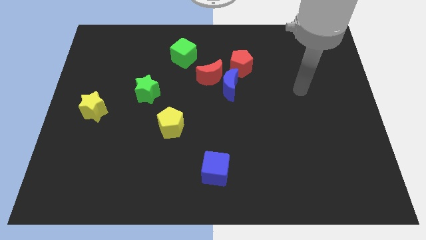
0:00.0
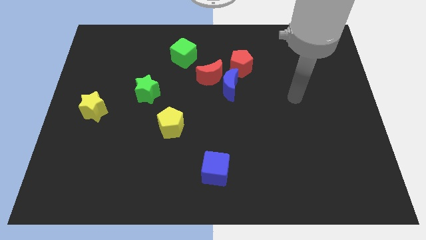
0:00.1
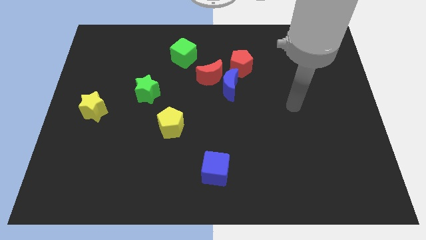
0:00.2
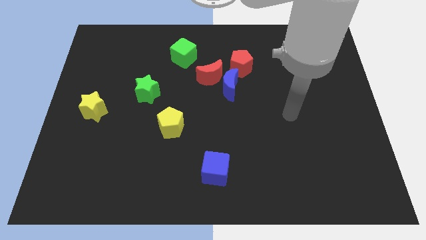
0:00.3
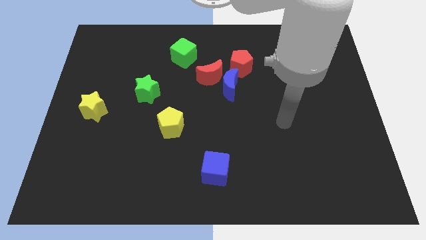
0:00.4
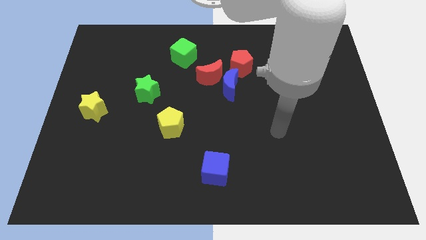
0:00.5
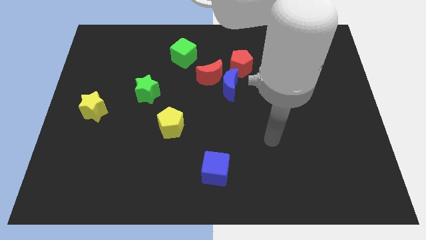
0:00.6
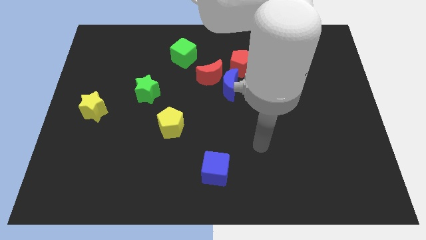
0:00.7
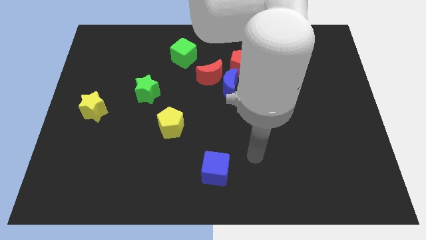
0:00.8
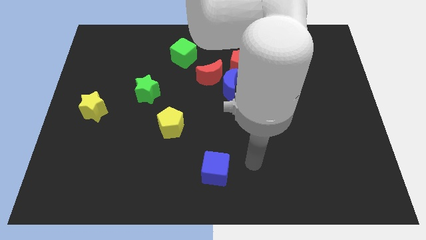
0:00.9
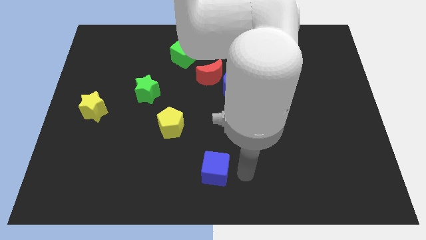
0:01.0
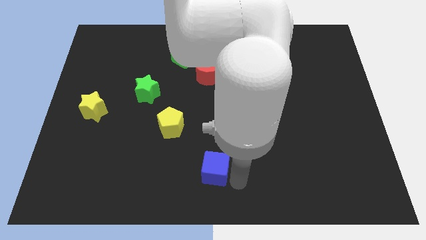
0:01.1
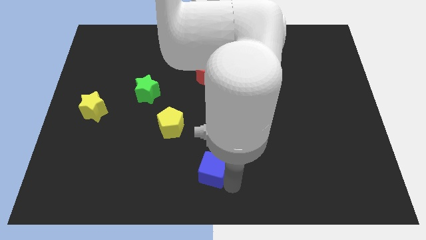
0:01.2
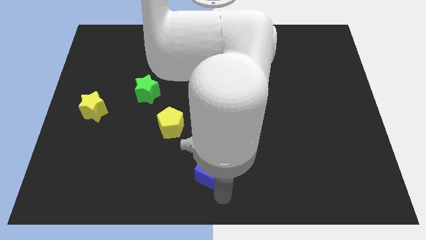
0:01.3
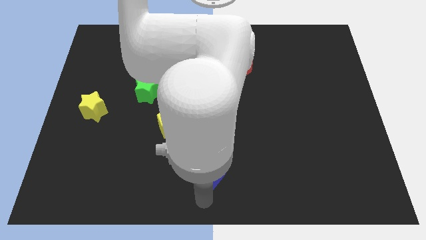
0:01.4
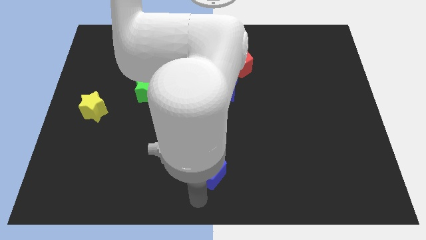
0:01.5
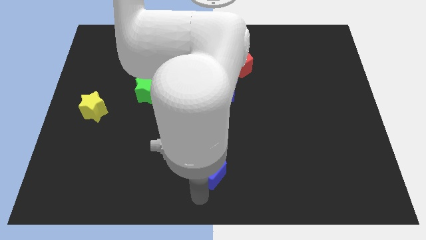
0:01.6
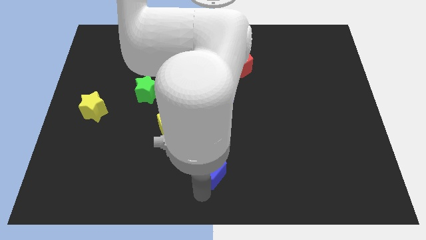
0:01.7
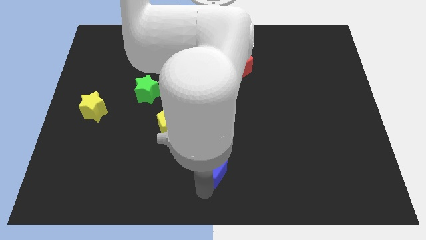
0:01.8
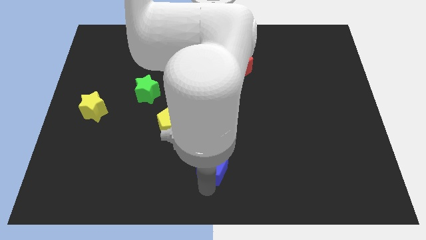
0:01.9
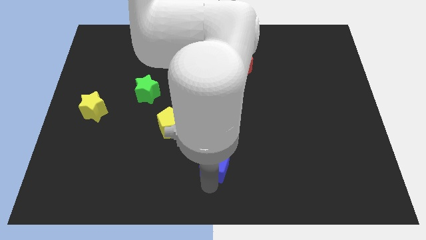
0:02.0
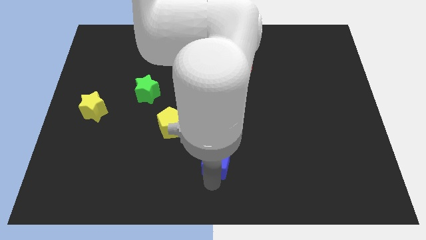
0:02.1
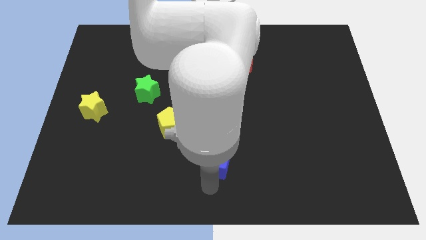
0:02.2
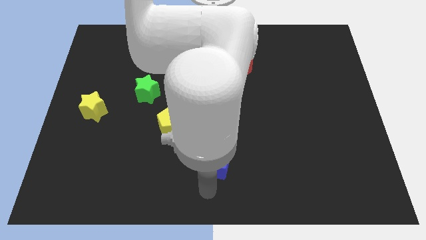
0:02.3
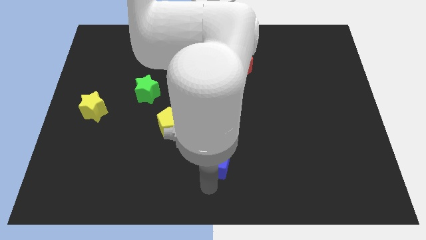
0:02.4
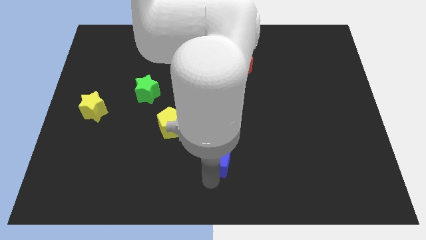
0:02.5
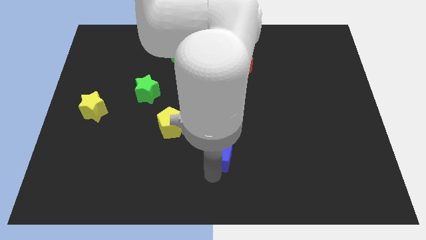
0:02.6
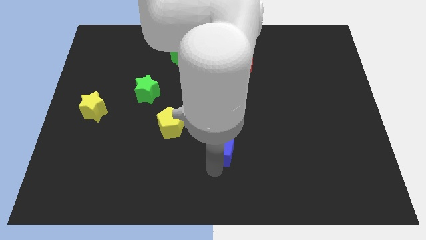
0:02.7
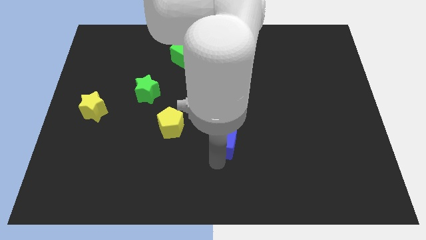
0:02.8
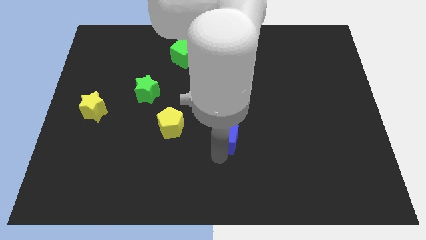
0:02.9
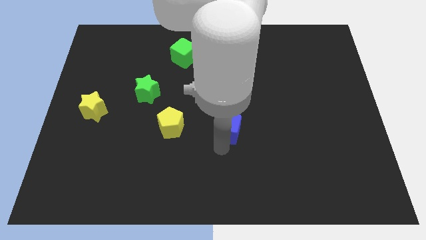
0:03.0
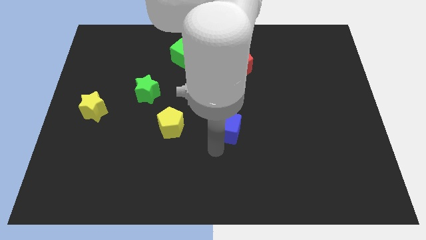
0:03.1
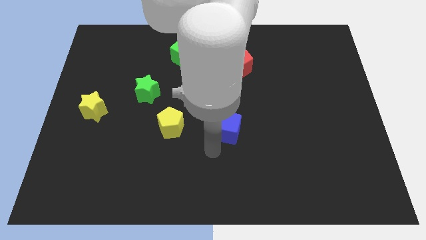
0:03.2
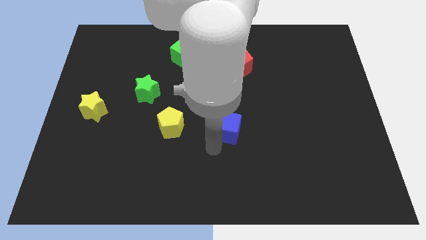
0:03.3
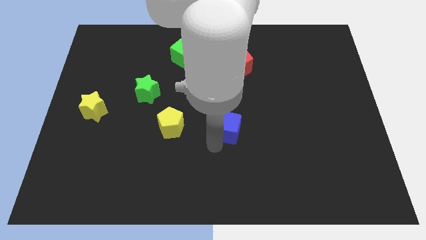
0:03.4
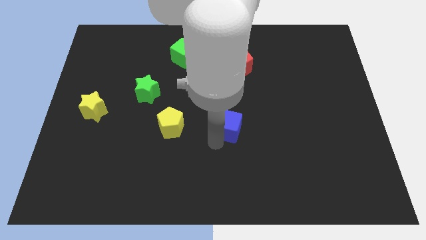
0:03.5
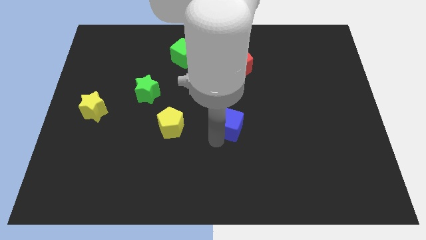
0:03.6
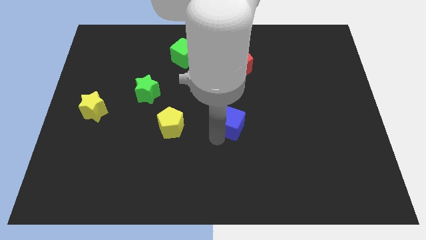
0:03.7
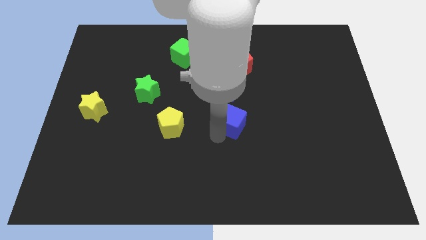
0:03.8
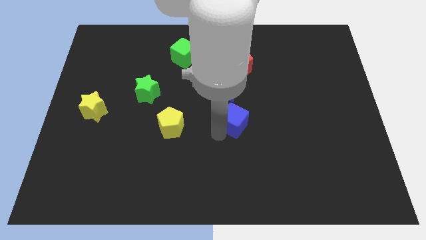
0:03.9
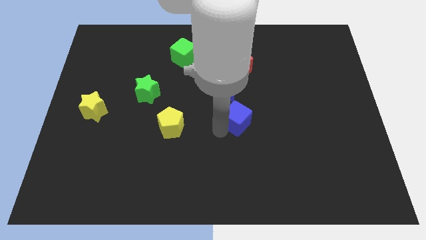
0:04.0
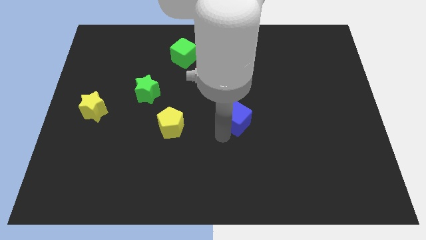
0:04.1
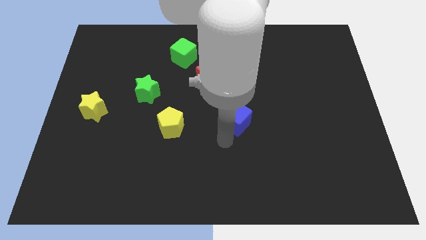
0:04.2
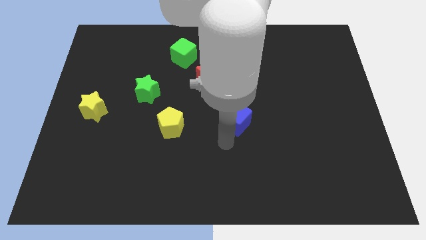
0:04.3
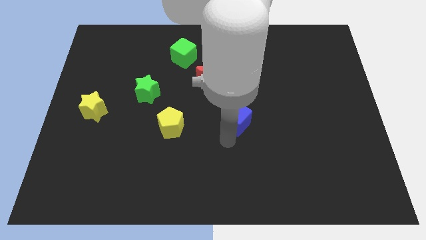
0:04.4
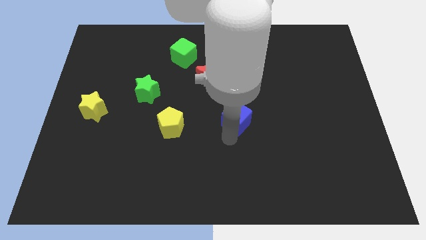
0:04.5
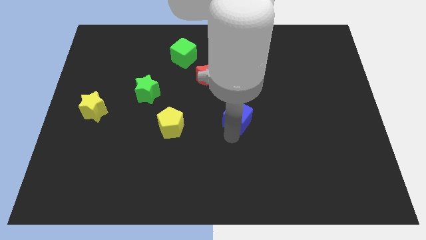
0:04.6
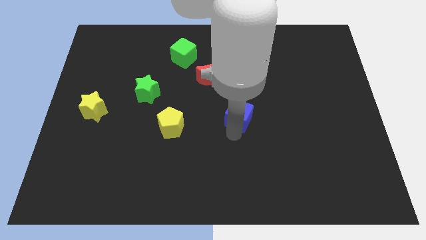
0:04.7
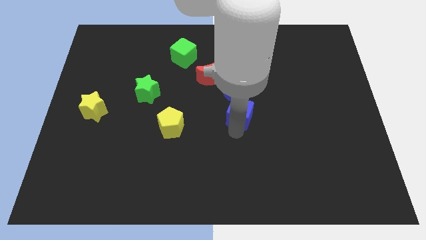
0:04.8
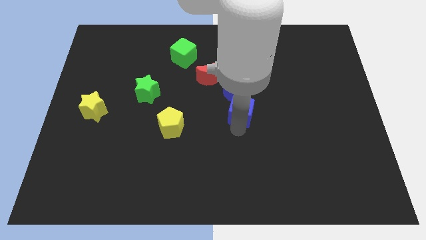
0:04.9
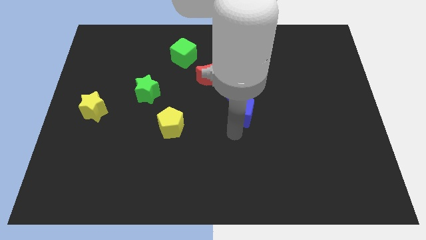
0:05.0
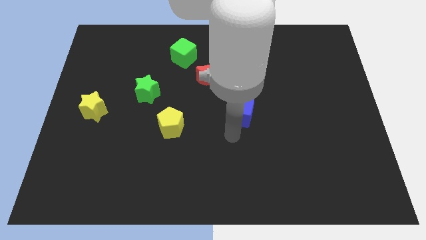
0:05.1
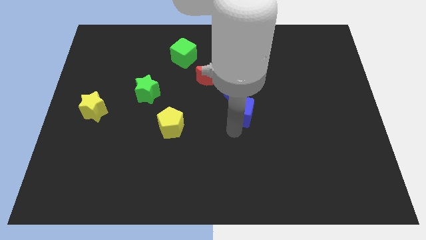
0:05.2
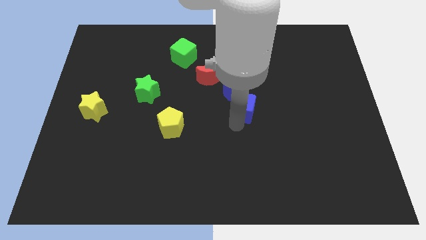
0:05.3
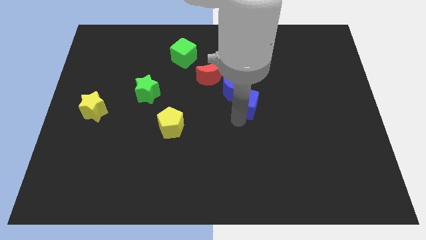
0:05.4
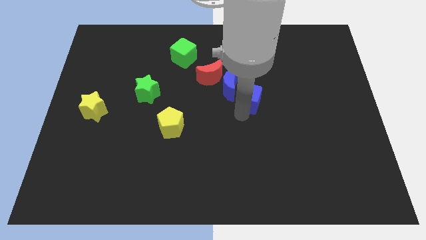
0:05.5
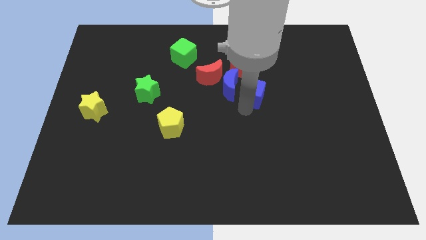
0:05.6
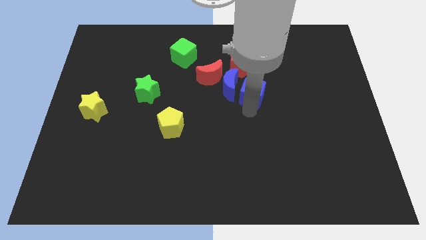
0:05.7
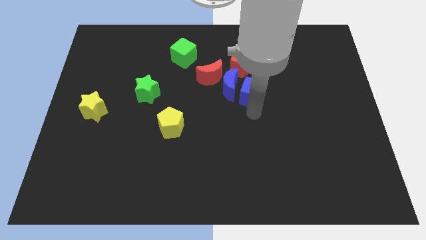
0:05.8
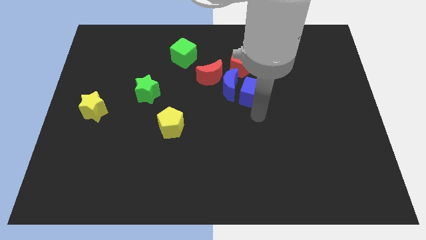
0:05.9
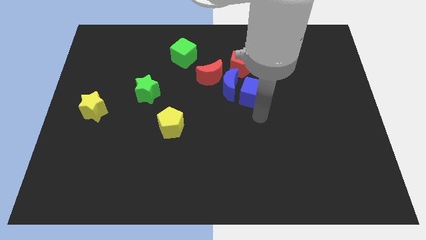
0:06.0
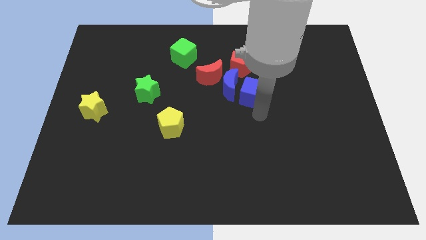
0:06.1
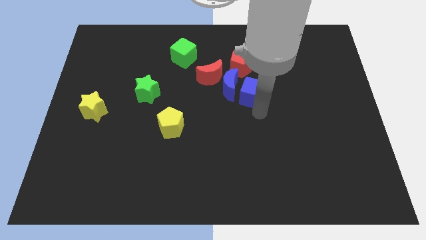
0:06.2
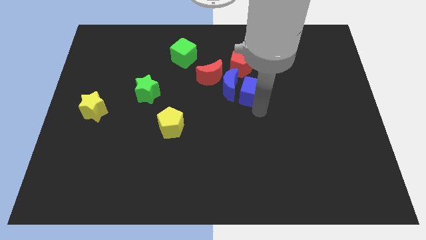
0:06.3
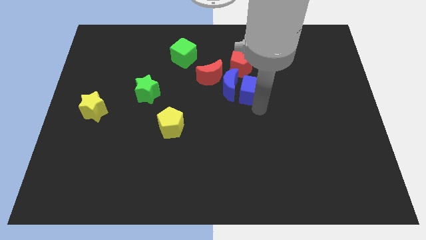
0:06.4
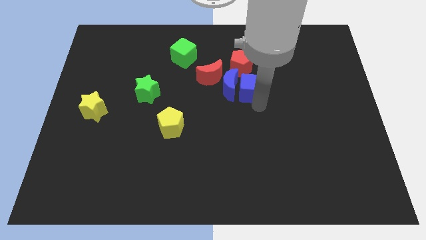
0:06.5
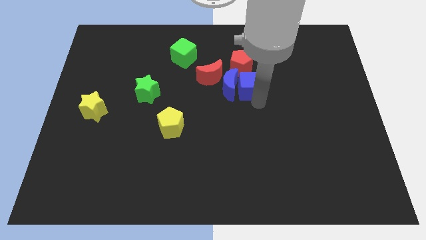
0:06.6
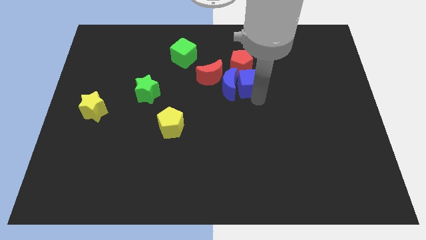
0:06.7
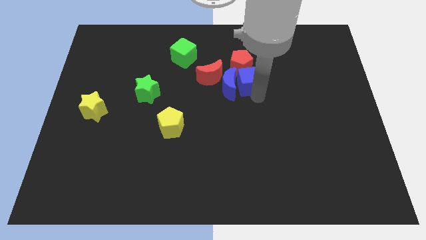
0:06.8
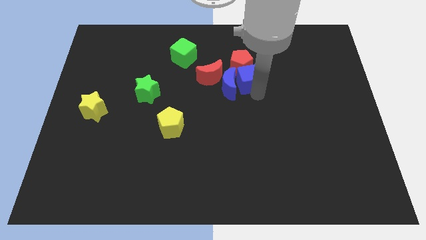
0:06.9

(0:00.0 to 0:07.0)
put the blue cube next to the red pentagon

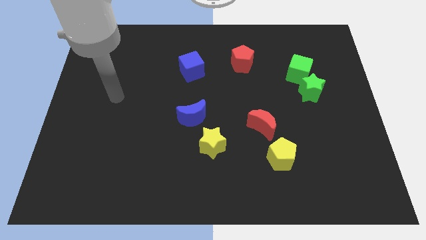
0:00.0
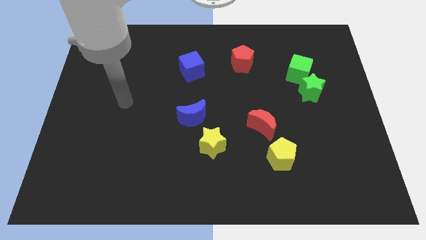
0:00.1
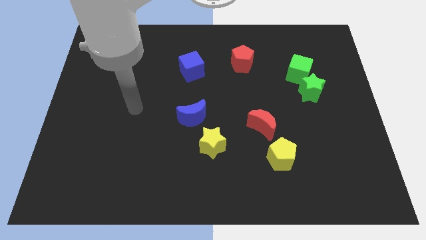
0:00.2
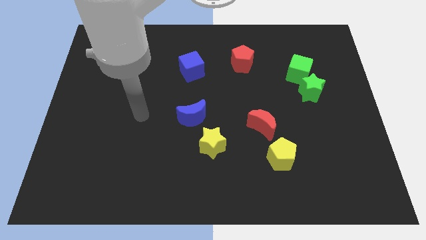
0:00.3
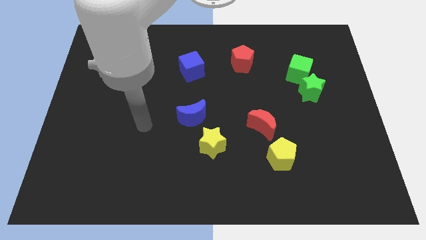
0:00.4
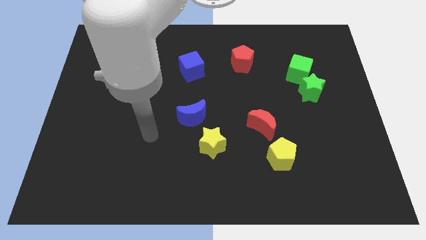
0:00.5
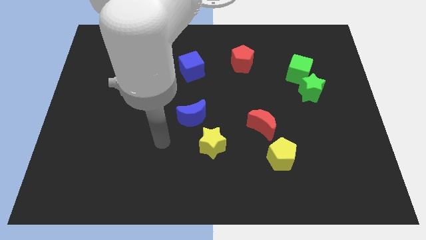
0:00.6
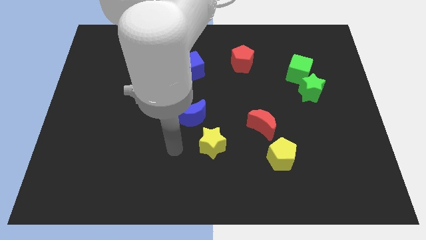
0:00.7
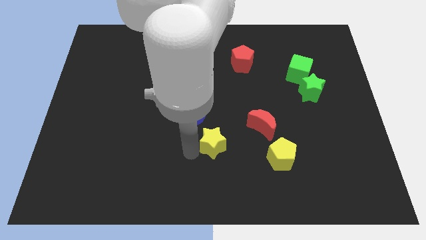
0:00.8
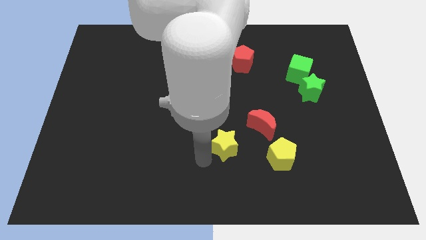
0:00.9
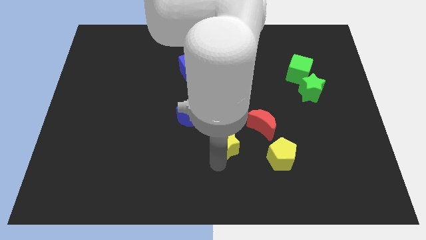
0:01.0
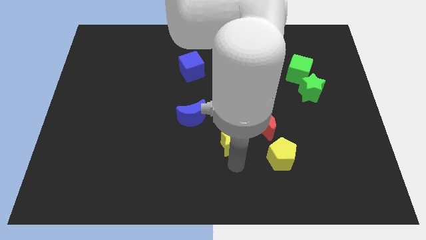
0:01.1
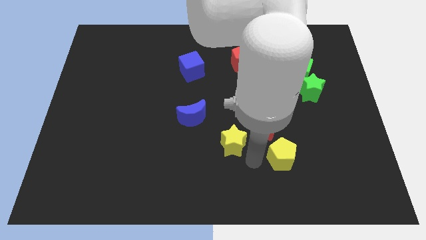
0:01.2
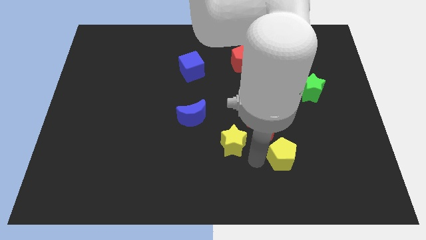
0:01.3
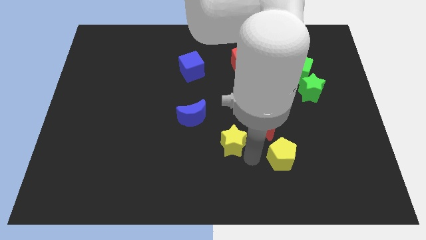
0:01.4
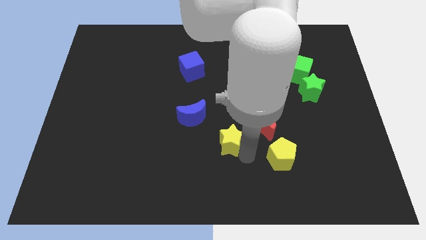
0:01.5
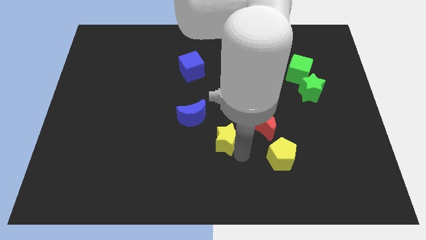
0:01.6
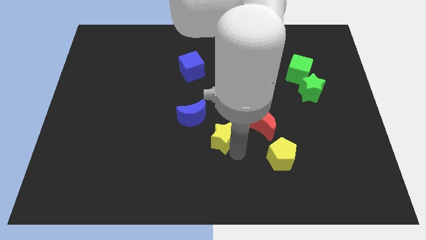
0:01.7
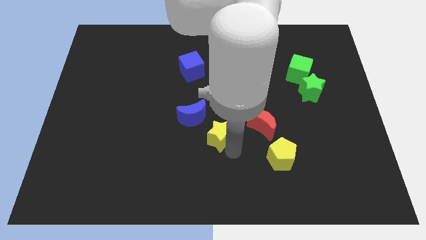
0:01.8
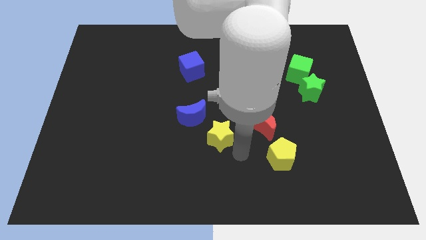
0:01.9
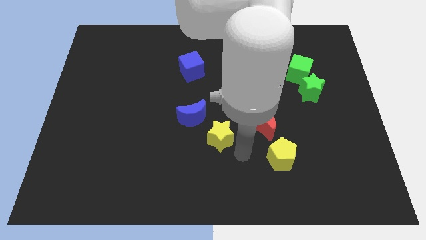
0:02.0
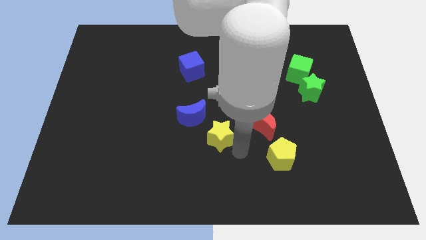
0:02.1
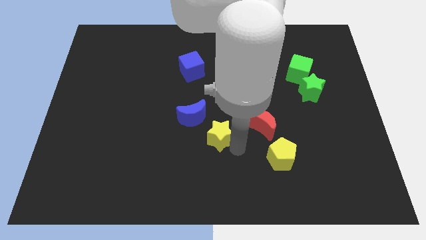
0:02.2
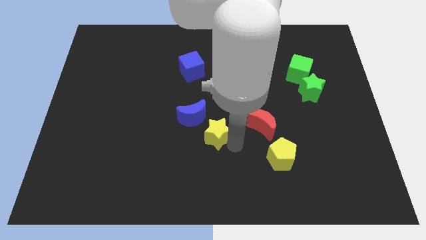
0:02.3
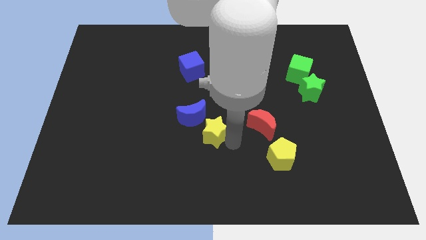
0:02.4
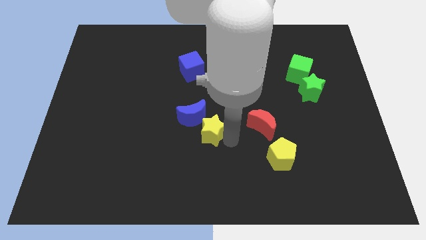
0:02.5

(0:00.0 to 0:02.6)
push the yellow star close to the blue moon
